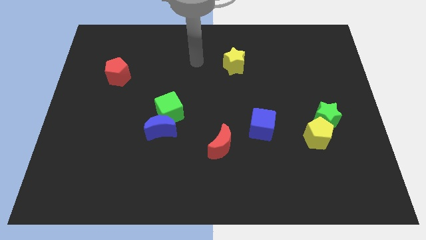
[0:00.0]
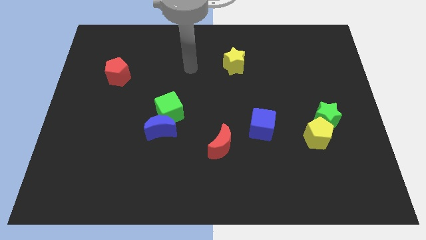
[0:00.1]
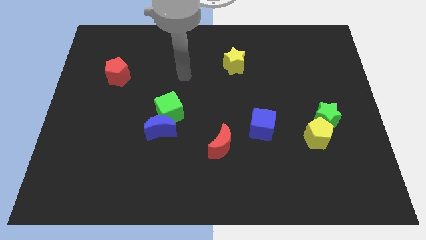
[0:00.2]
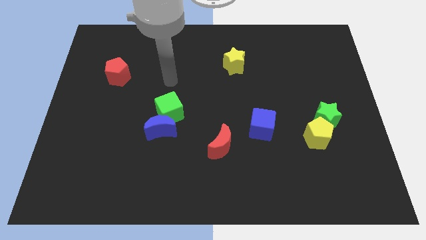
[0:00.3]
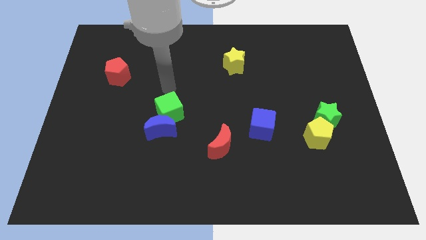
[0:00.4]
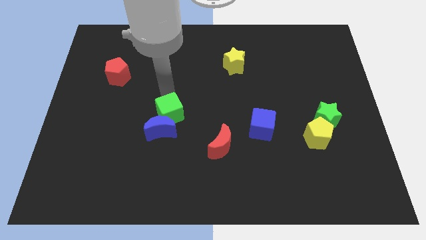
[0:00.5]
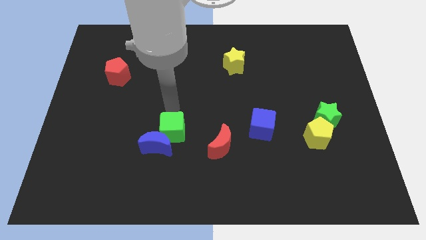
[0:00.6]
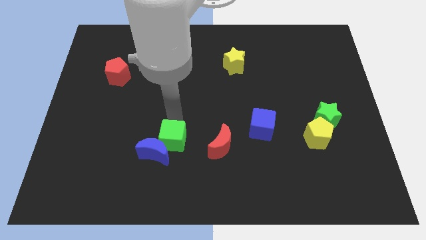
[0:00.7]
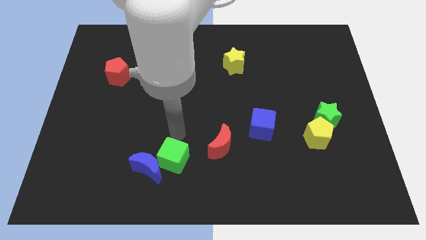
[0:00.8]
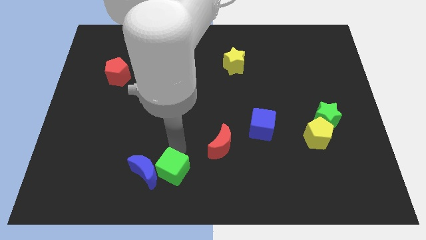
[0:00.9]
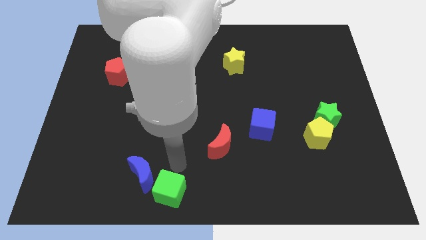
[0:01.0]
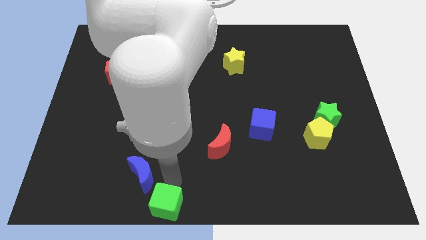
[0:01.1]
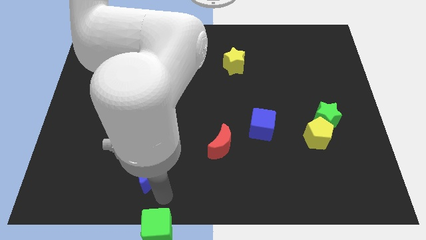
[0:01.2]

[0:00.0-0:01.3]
separate the blue moon from the green cube

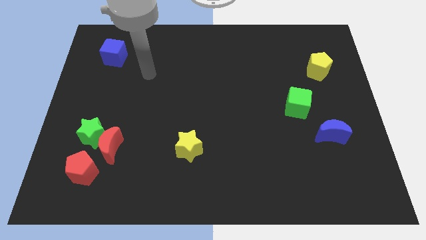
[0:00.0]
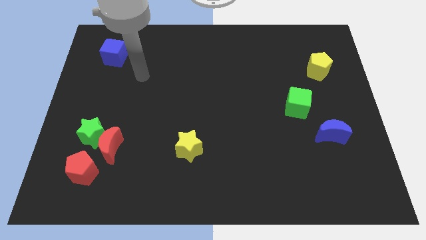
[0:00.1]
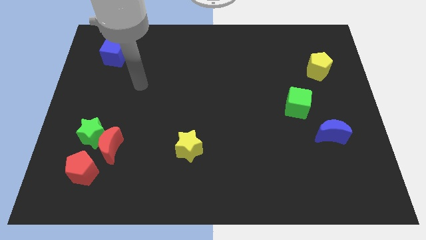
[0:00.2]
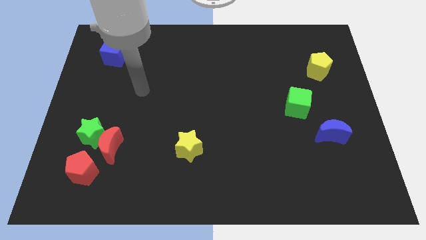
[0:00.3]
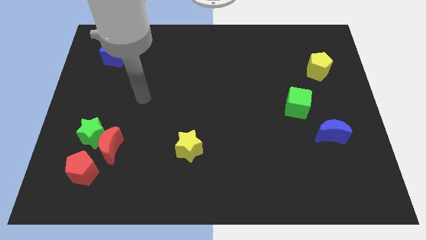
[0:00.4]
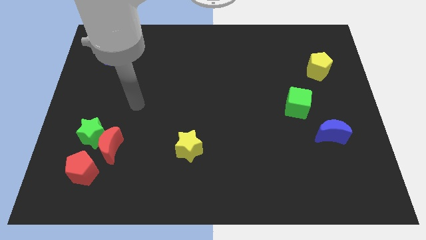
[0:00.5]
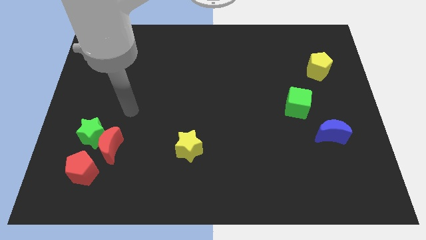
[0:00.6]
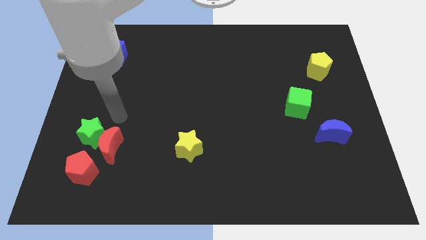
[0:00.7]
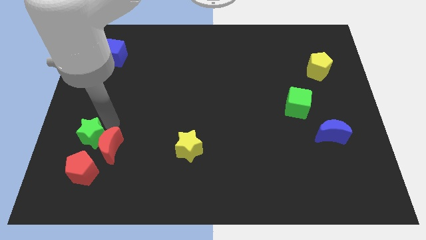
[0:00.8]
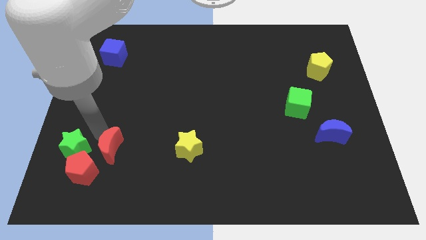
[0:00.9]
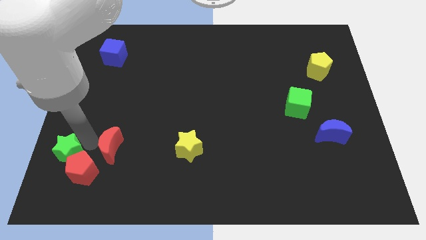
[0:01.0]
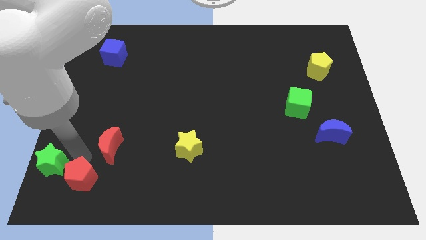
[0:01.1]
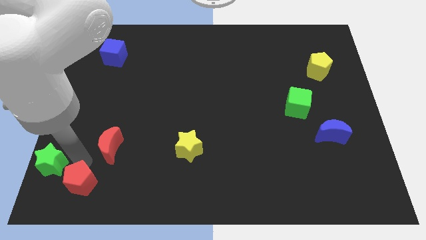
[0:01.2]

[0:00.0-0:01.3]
pull the red moon apart from the green star and red pentagon

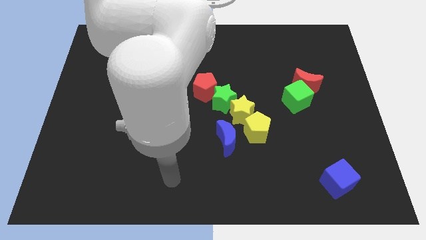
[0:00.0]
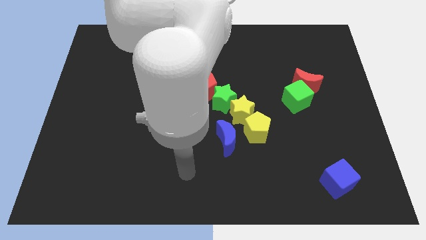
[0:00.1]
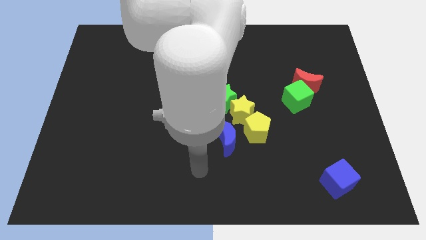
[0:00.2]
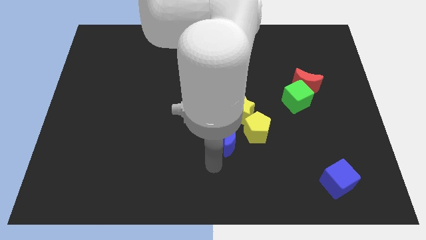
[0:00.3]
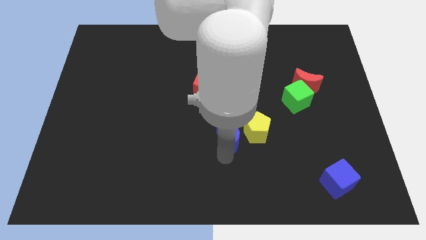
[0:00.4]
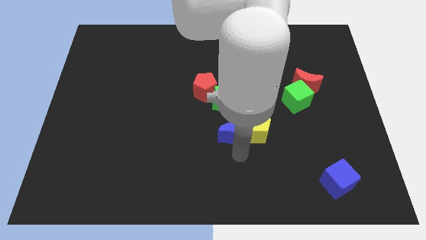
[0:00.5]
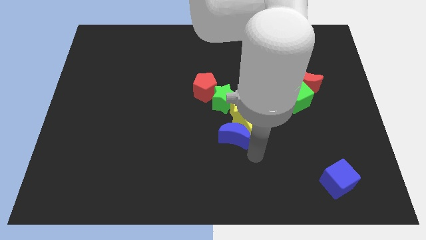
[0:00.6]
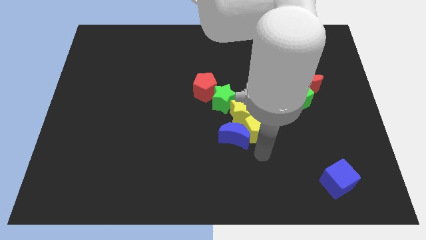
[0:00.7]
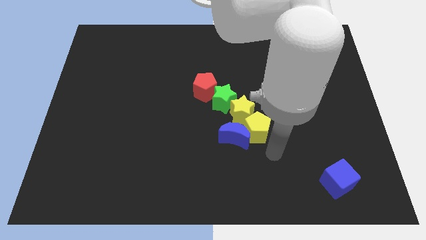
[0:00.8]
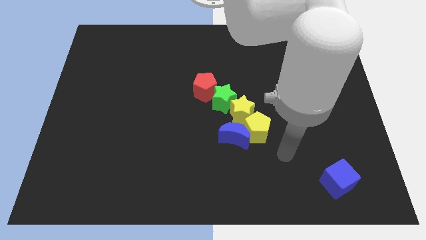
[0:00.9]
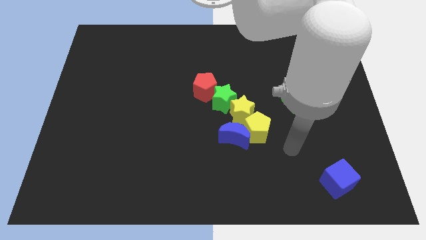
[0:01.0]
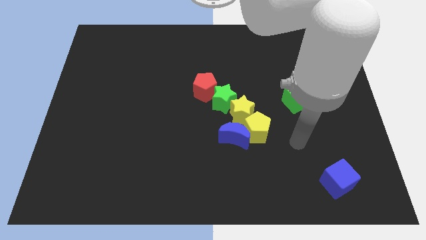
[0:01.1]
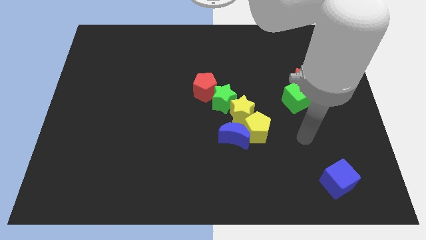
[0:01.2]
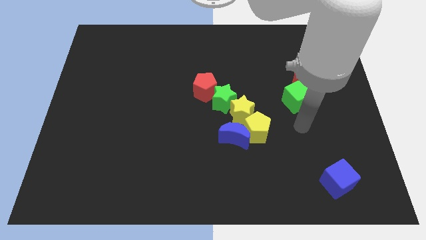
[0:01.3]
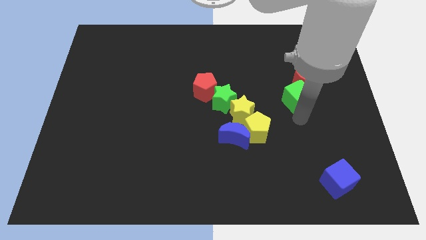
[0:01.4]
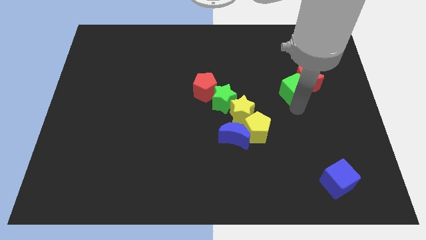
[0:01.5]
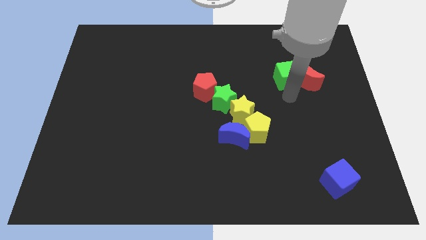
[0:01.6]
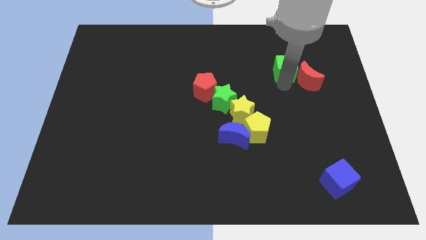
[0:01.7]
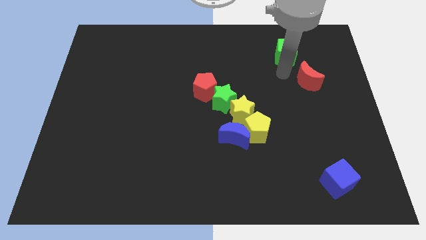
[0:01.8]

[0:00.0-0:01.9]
pull the red moon apart from the green cube

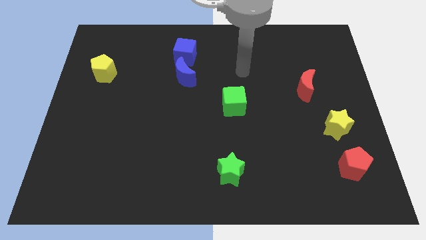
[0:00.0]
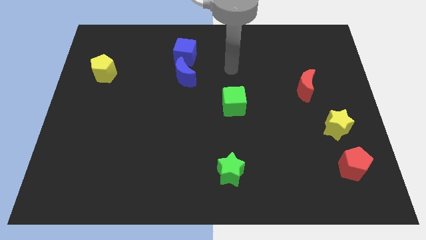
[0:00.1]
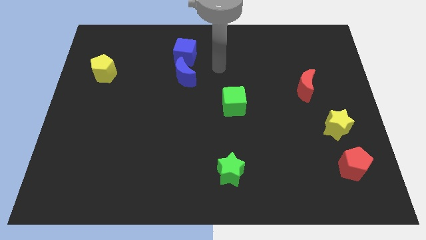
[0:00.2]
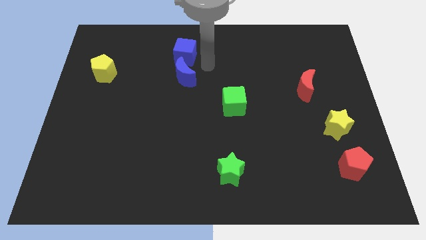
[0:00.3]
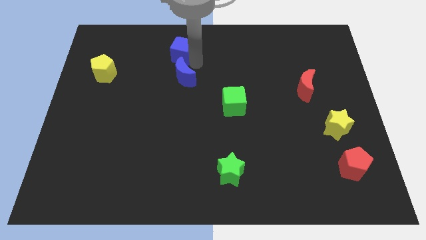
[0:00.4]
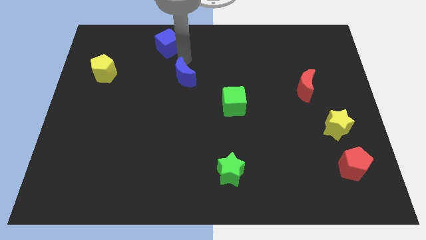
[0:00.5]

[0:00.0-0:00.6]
pull the blue moon apart from the blue cube

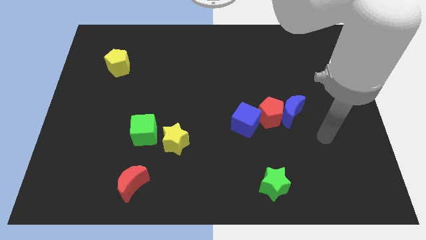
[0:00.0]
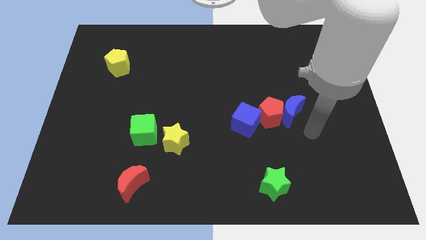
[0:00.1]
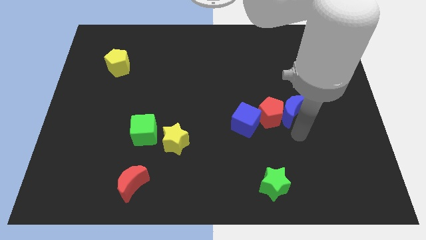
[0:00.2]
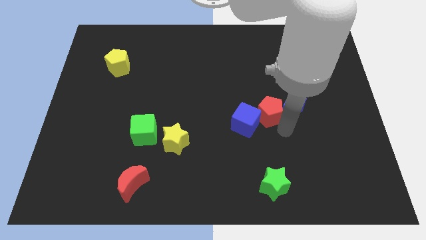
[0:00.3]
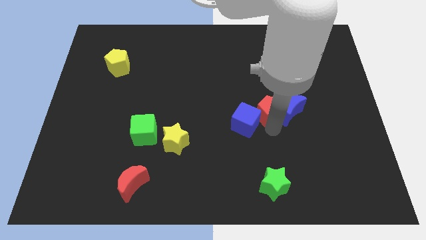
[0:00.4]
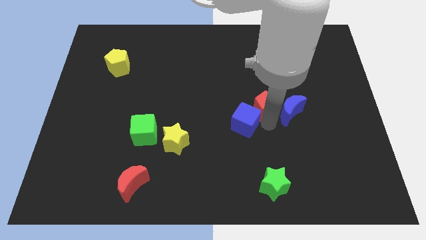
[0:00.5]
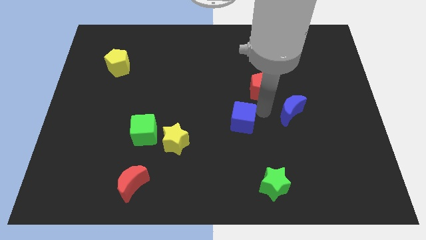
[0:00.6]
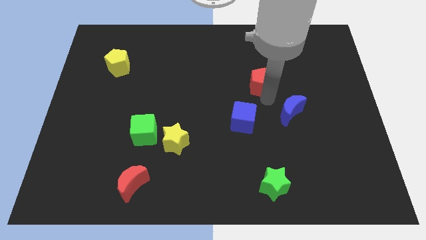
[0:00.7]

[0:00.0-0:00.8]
move the blue moon away from the red pentagon

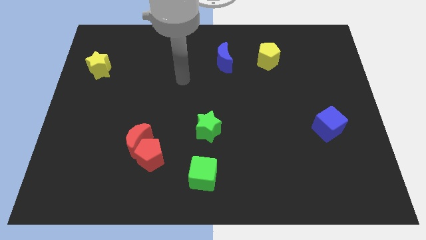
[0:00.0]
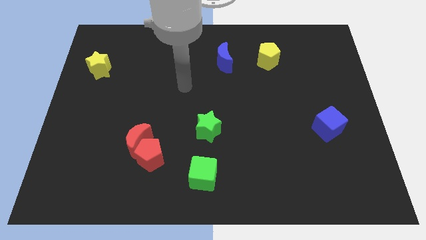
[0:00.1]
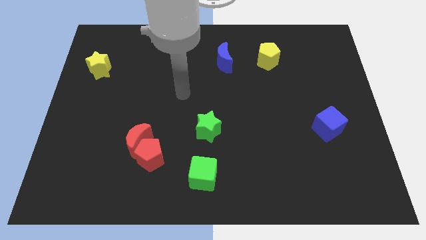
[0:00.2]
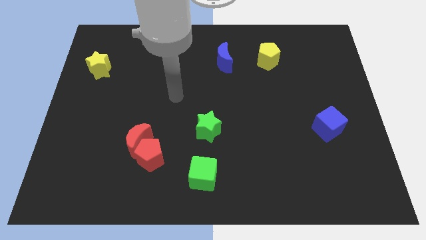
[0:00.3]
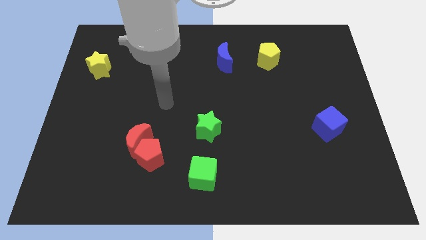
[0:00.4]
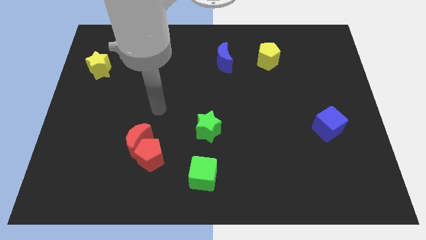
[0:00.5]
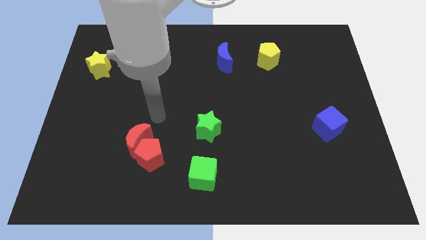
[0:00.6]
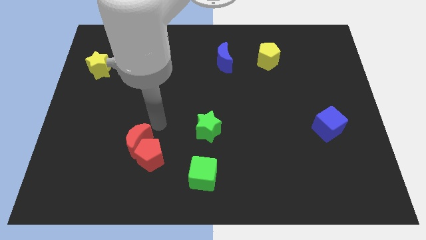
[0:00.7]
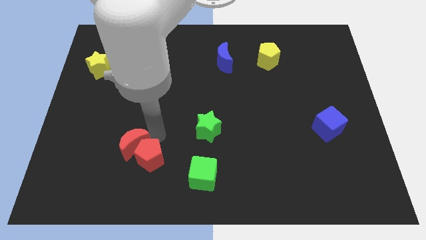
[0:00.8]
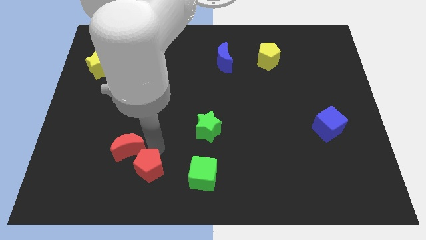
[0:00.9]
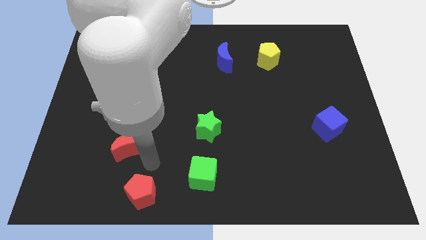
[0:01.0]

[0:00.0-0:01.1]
move the red moon away from the red pentagon

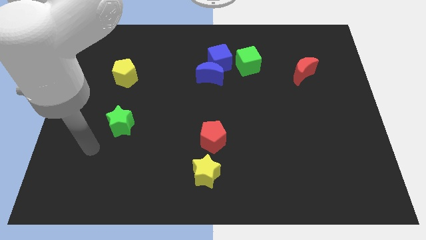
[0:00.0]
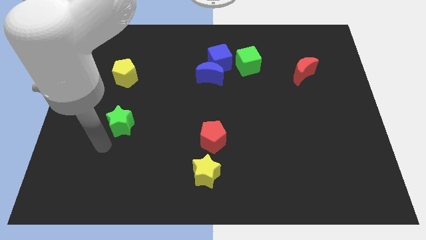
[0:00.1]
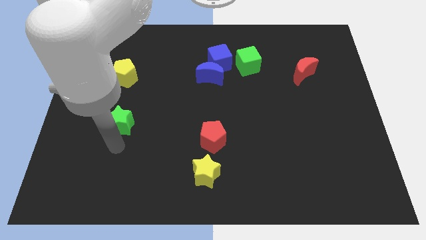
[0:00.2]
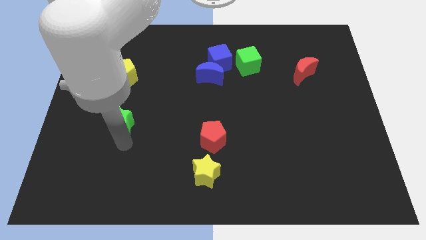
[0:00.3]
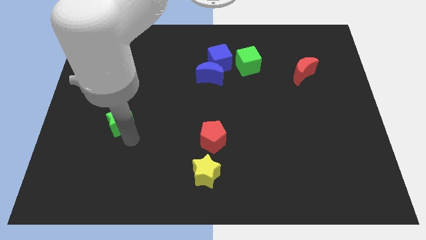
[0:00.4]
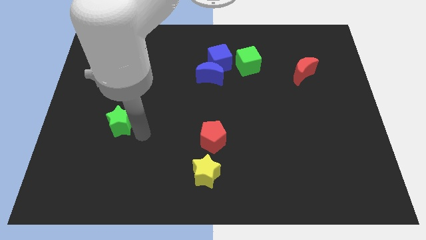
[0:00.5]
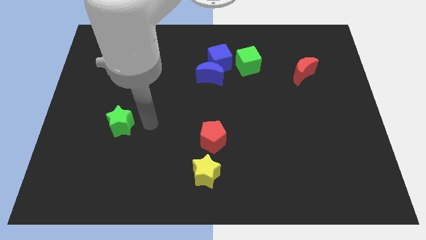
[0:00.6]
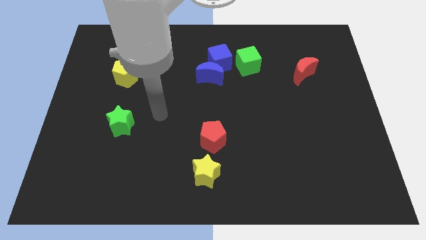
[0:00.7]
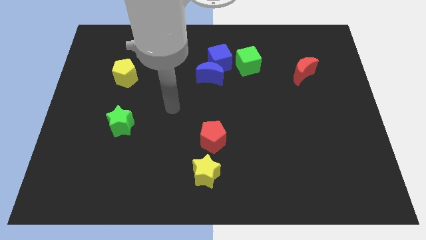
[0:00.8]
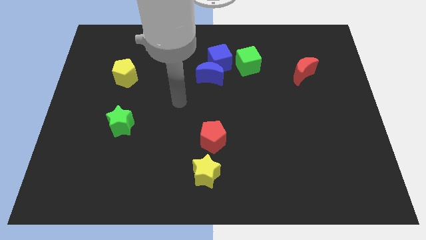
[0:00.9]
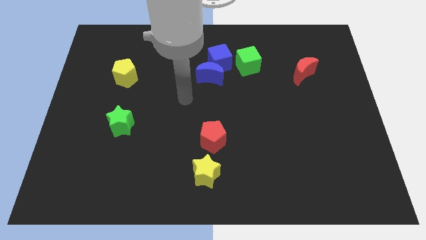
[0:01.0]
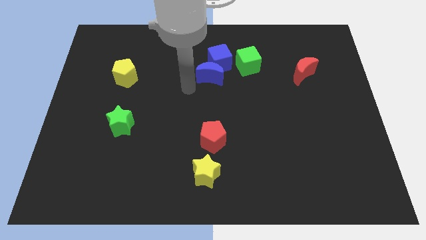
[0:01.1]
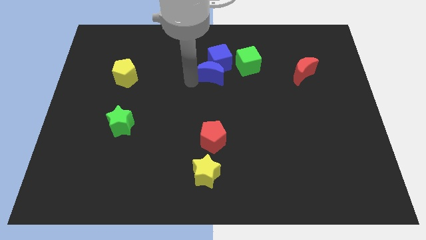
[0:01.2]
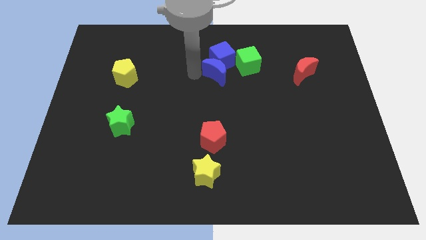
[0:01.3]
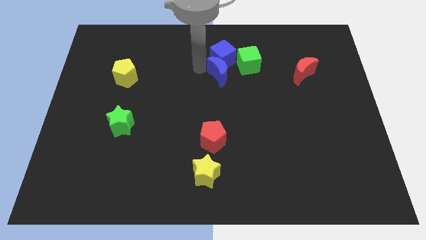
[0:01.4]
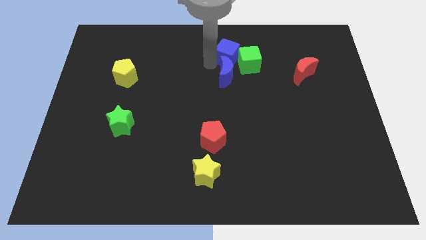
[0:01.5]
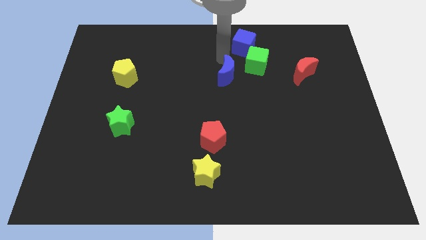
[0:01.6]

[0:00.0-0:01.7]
move the blue moon away from the blue cube

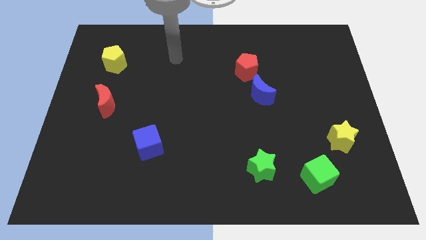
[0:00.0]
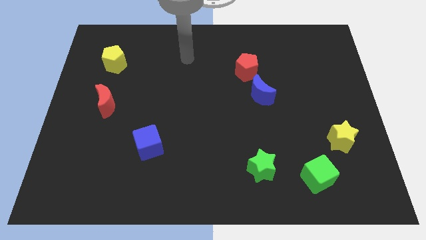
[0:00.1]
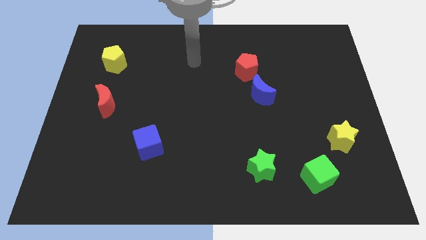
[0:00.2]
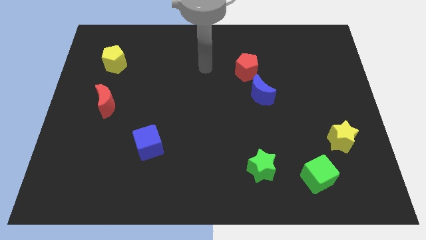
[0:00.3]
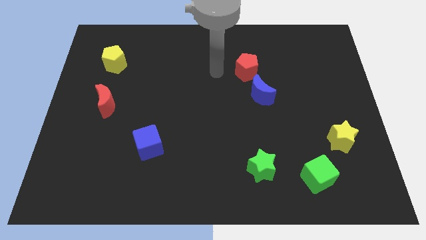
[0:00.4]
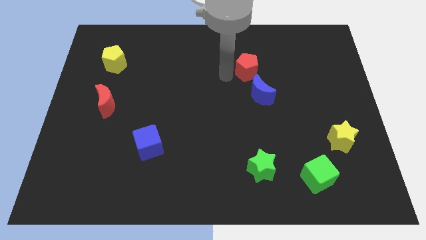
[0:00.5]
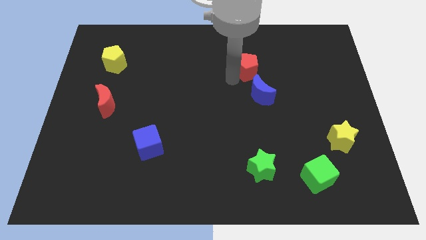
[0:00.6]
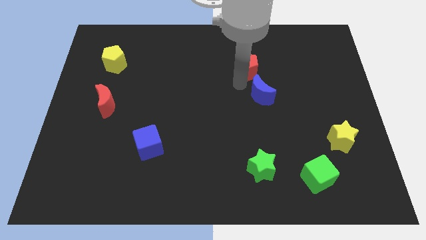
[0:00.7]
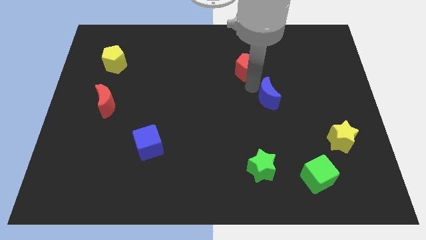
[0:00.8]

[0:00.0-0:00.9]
pull the red pentagon apart from the blue moon
